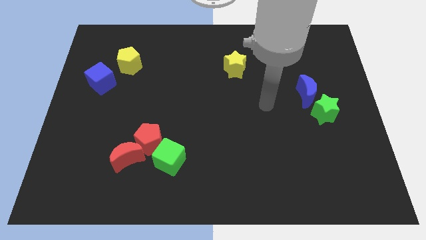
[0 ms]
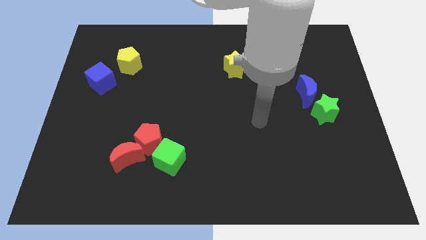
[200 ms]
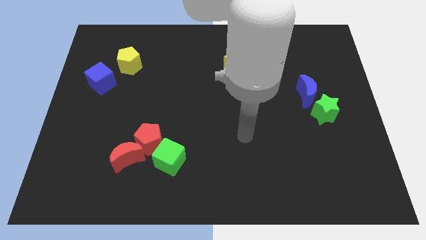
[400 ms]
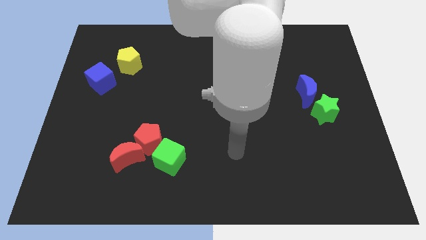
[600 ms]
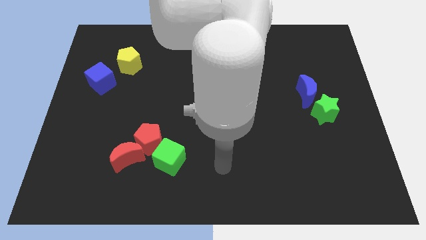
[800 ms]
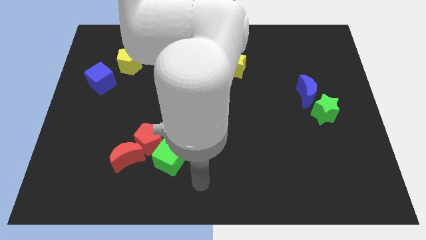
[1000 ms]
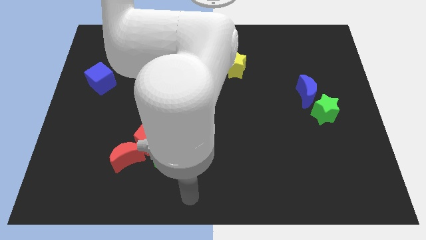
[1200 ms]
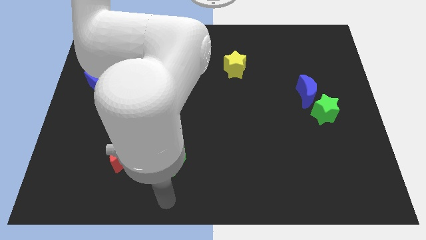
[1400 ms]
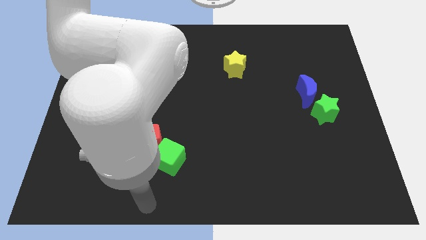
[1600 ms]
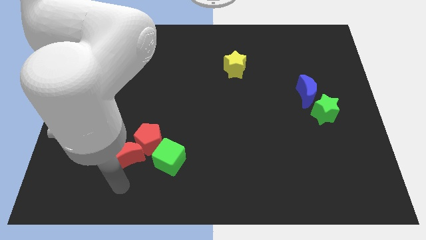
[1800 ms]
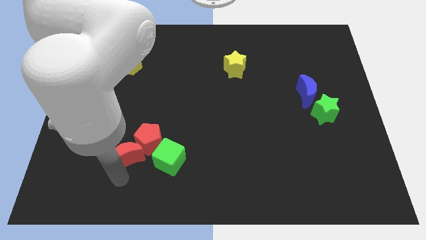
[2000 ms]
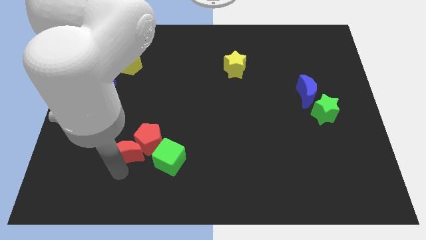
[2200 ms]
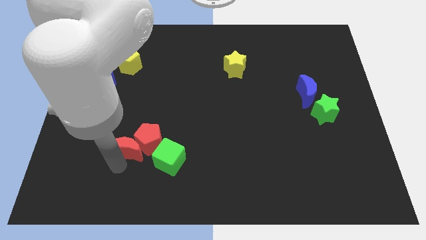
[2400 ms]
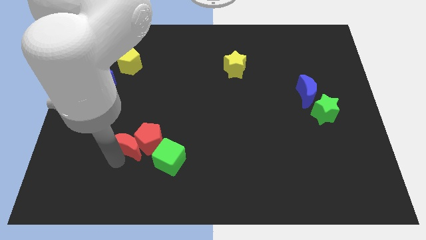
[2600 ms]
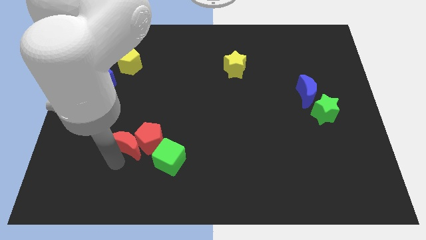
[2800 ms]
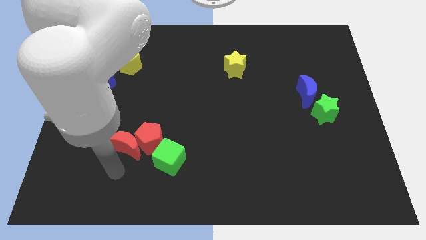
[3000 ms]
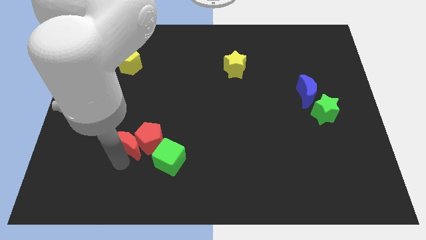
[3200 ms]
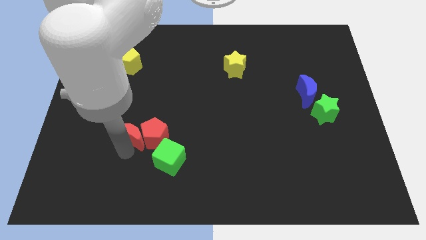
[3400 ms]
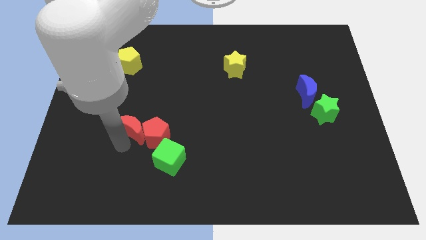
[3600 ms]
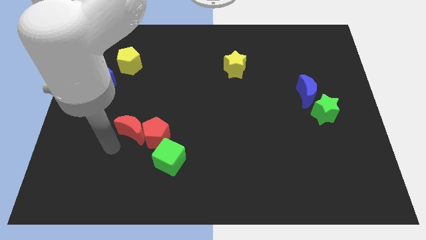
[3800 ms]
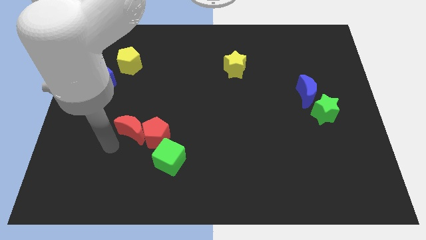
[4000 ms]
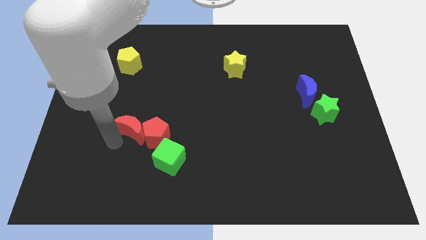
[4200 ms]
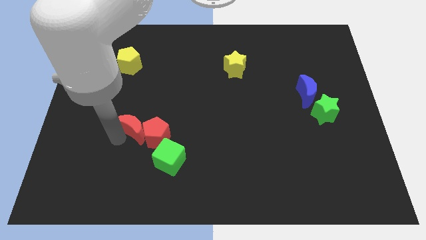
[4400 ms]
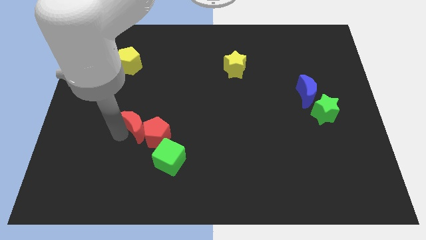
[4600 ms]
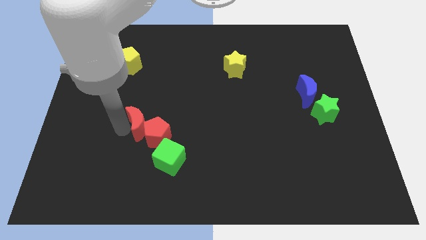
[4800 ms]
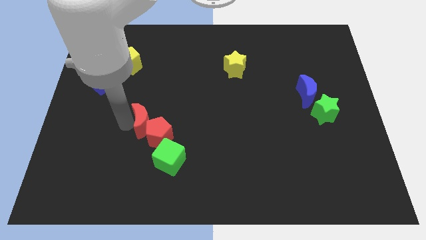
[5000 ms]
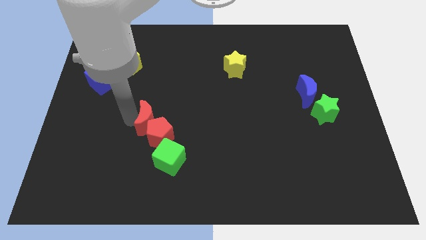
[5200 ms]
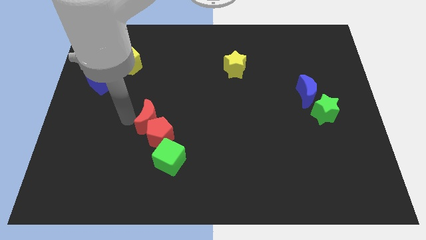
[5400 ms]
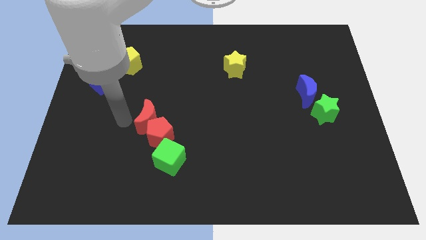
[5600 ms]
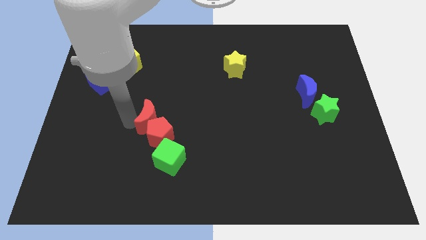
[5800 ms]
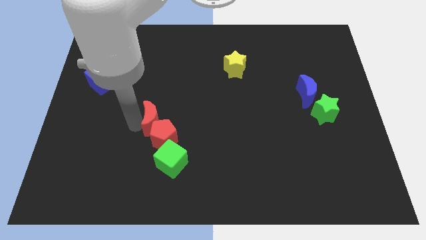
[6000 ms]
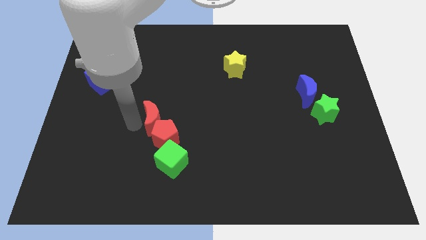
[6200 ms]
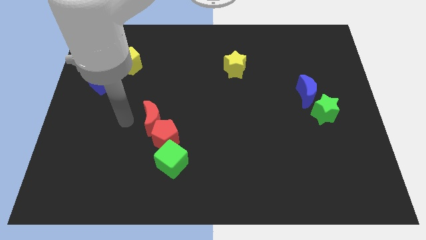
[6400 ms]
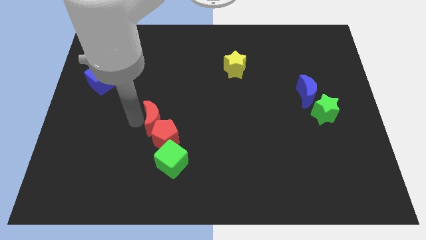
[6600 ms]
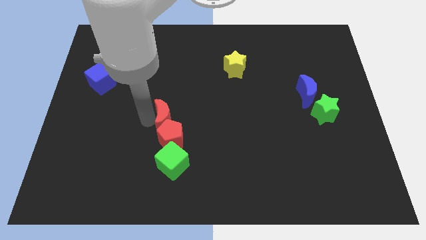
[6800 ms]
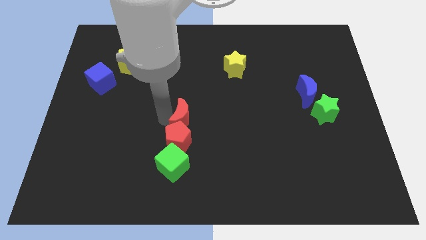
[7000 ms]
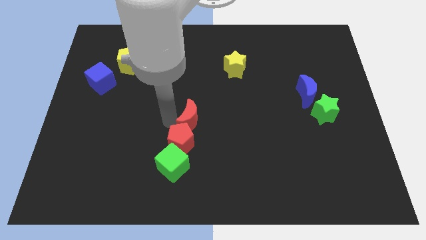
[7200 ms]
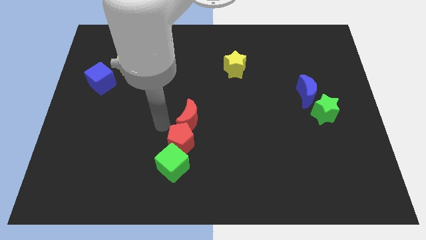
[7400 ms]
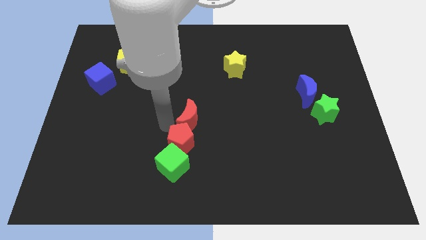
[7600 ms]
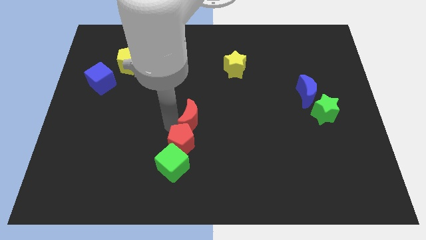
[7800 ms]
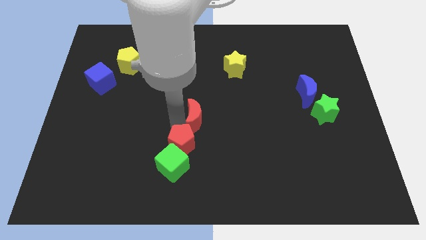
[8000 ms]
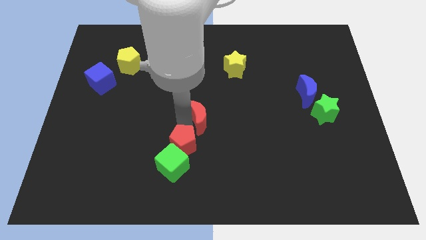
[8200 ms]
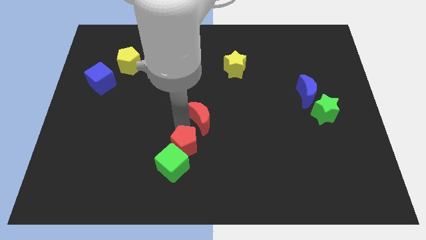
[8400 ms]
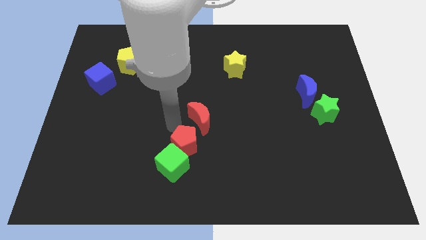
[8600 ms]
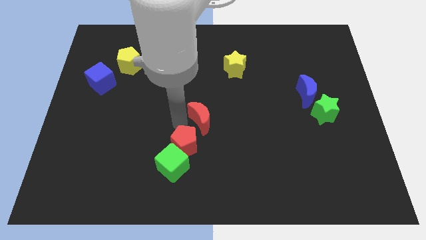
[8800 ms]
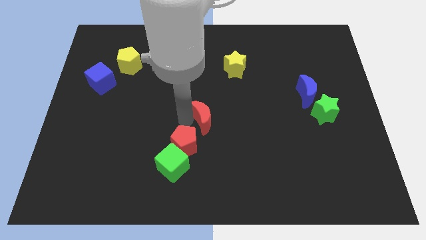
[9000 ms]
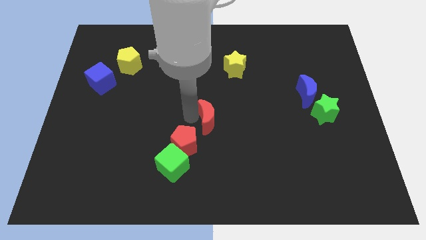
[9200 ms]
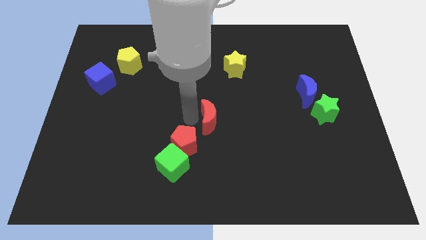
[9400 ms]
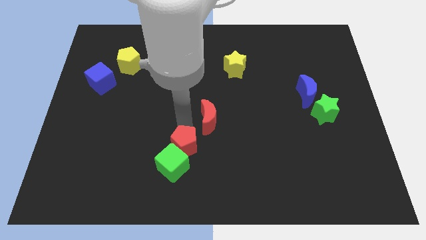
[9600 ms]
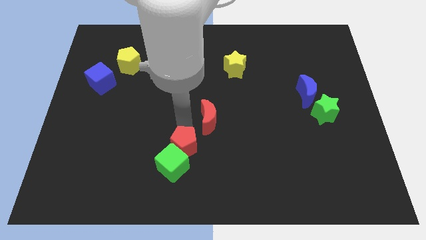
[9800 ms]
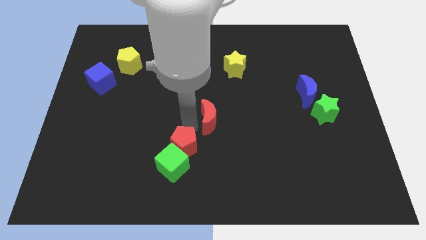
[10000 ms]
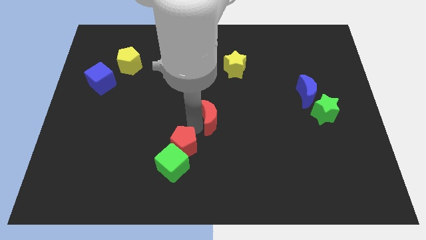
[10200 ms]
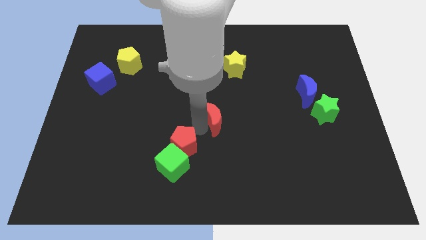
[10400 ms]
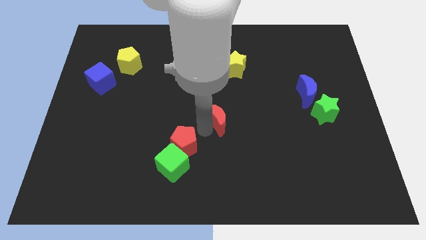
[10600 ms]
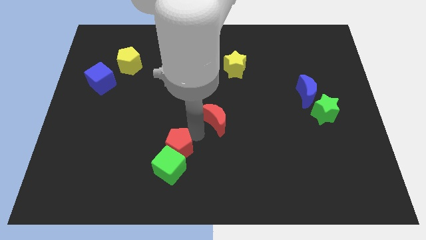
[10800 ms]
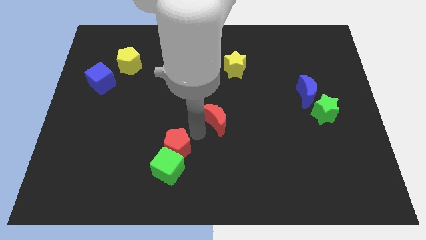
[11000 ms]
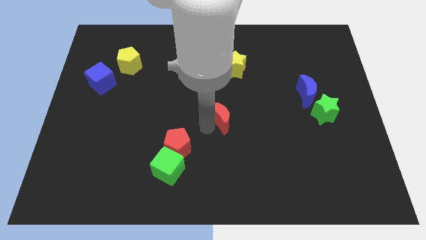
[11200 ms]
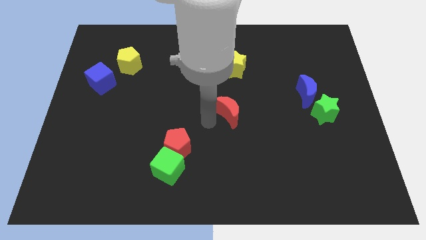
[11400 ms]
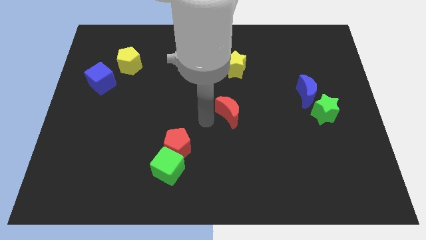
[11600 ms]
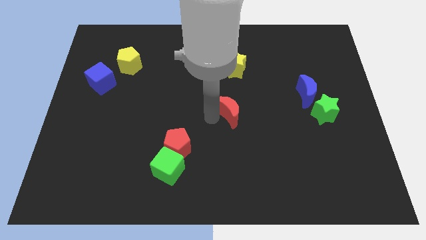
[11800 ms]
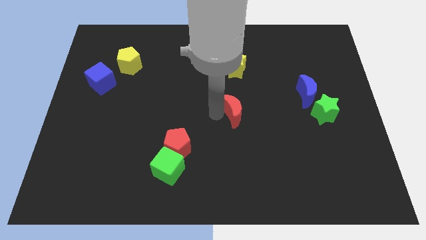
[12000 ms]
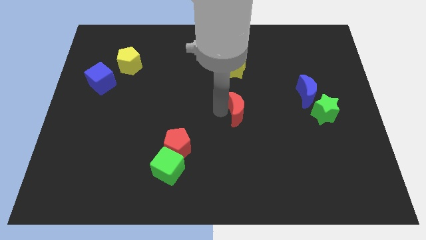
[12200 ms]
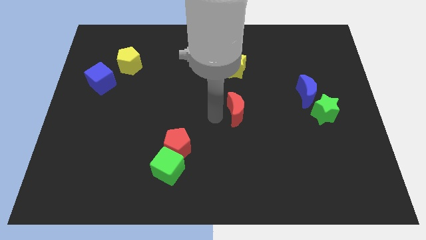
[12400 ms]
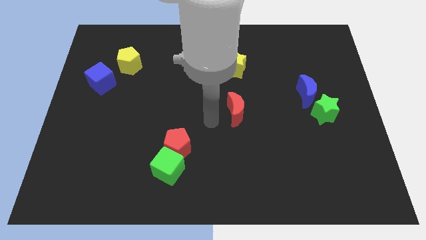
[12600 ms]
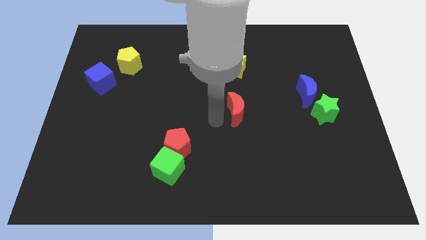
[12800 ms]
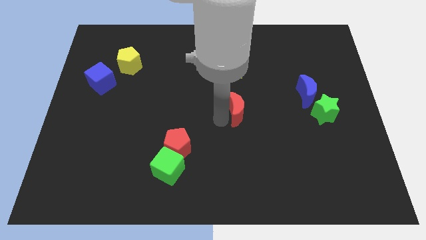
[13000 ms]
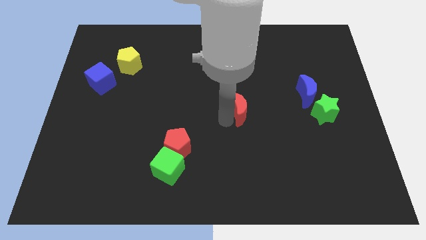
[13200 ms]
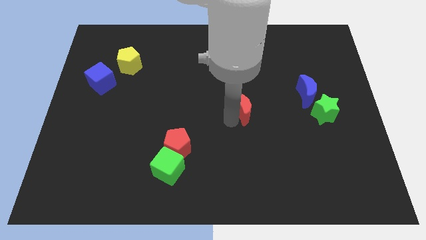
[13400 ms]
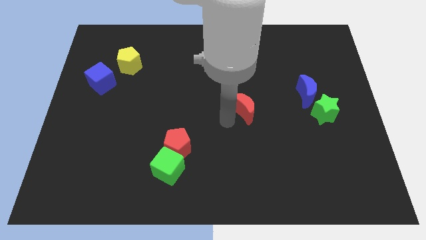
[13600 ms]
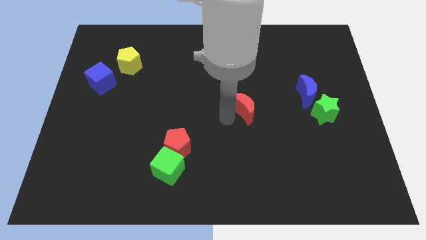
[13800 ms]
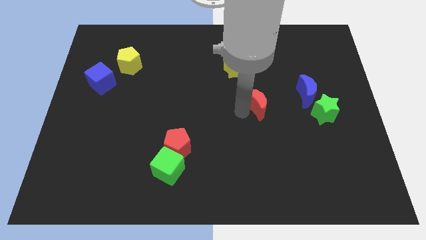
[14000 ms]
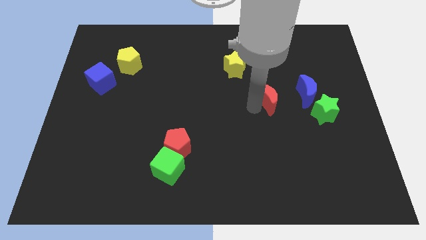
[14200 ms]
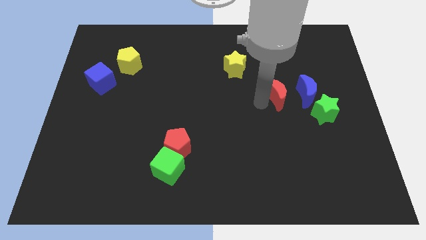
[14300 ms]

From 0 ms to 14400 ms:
put the red moon diagonally up and to the left of the green star

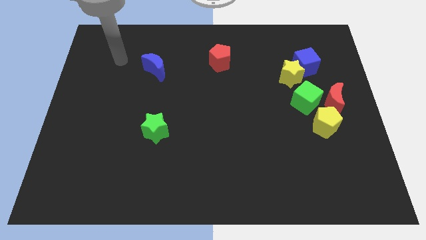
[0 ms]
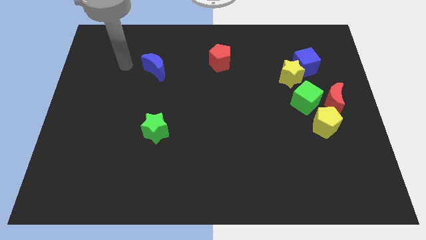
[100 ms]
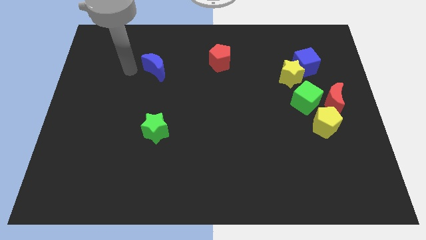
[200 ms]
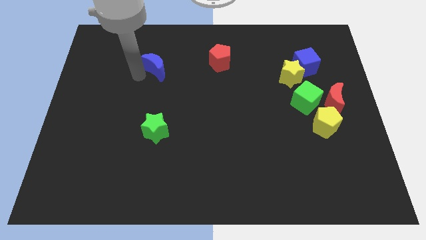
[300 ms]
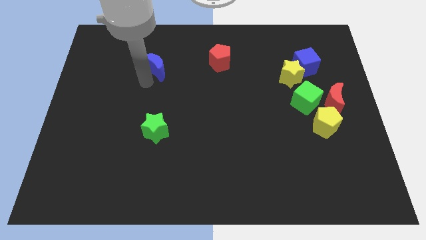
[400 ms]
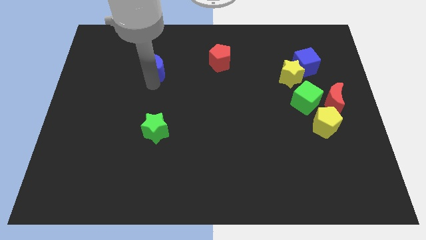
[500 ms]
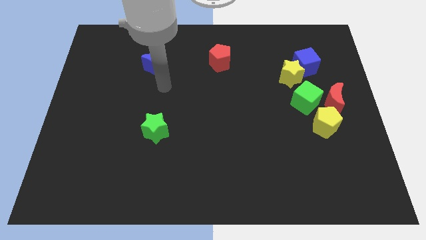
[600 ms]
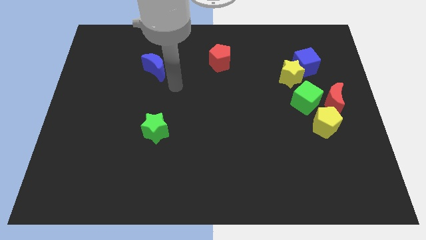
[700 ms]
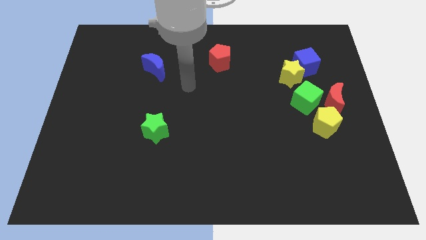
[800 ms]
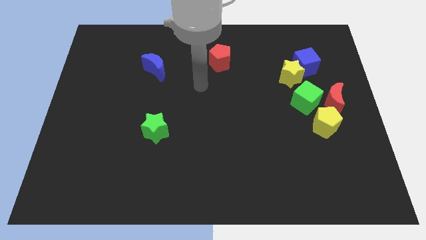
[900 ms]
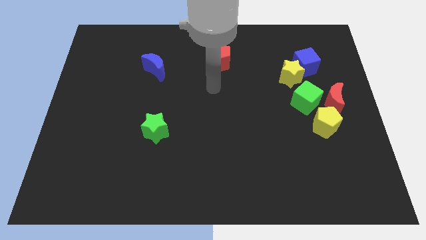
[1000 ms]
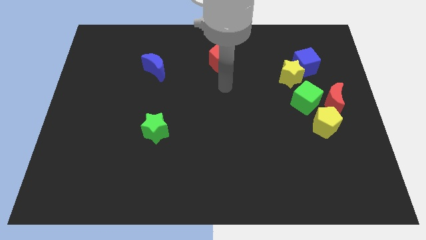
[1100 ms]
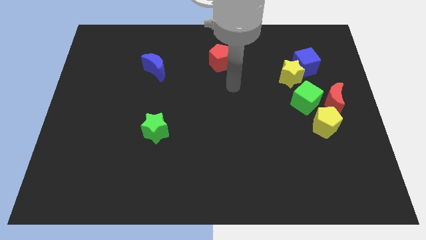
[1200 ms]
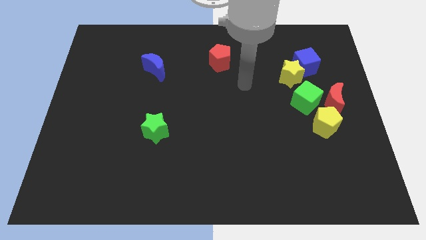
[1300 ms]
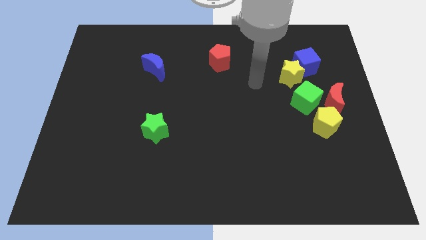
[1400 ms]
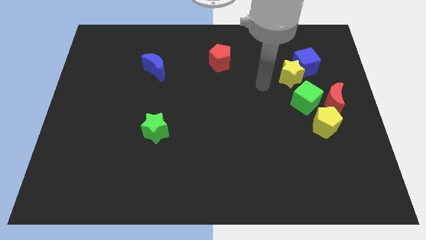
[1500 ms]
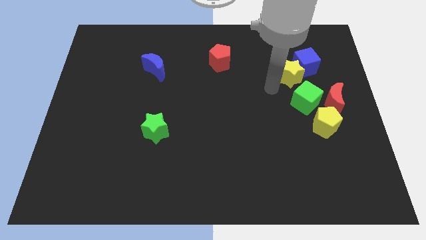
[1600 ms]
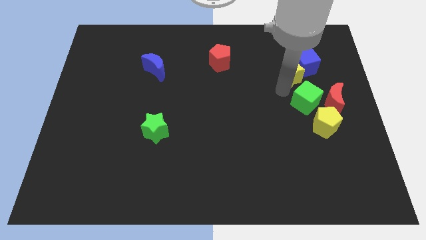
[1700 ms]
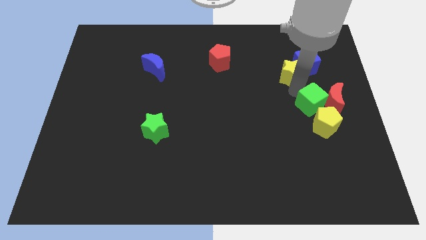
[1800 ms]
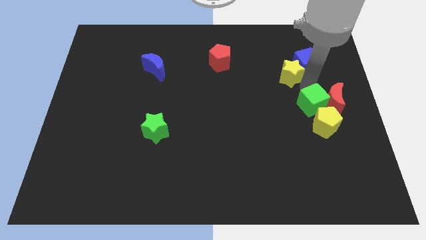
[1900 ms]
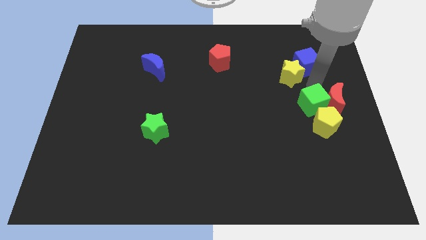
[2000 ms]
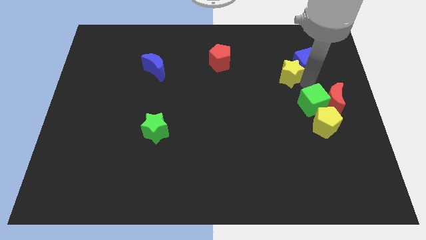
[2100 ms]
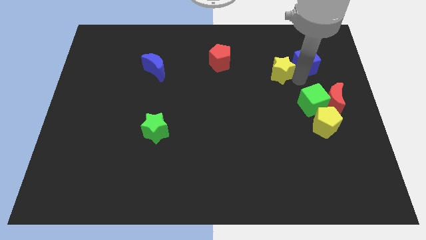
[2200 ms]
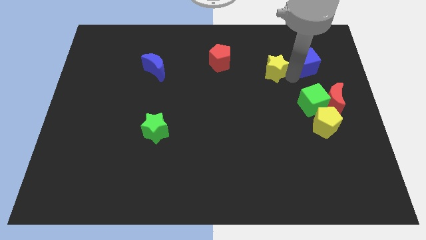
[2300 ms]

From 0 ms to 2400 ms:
push the yellow star right of the red pentagon
